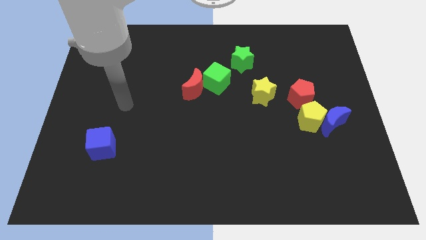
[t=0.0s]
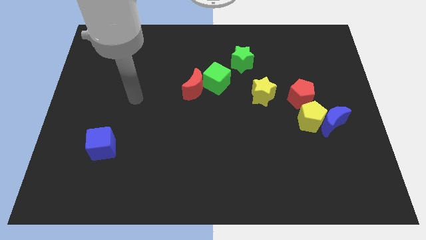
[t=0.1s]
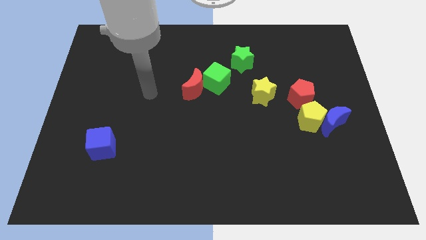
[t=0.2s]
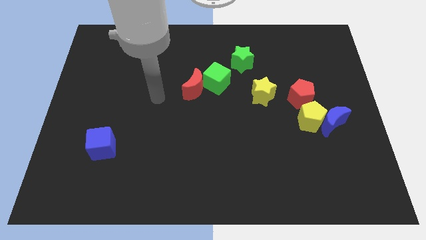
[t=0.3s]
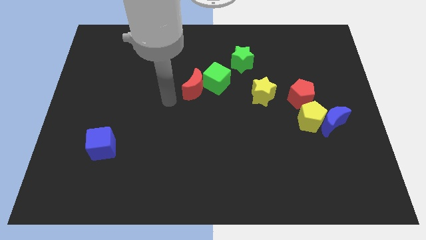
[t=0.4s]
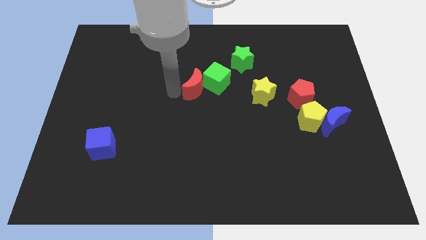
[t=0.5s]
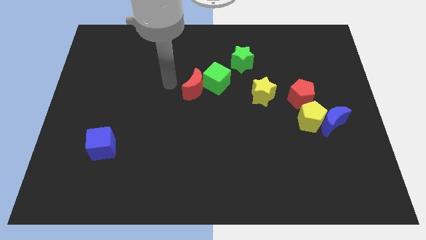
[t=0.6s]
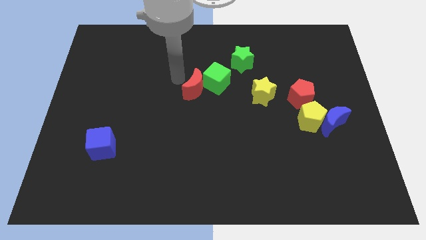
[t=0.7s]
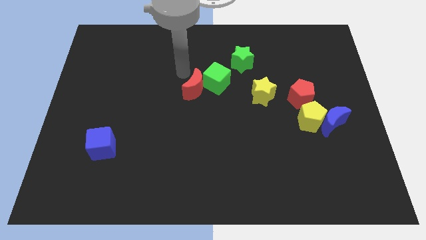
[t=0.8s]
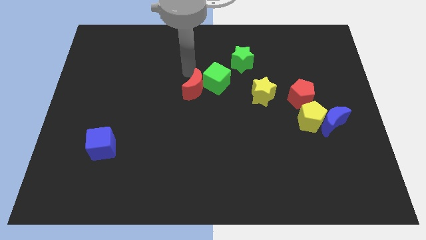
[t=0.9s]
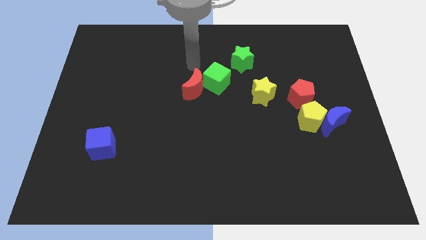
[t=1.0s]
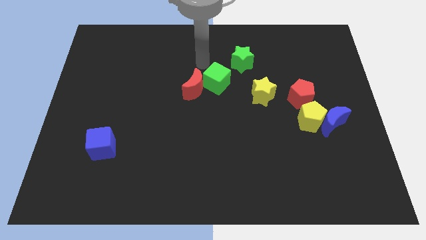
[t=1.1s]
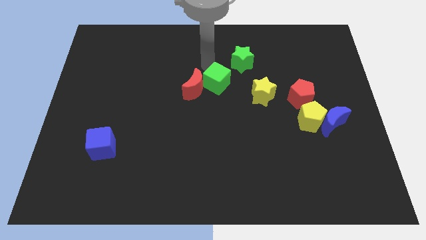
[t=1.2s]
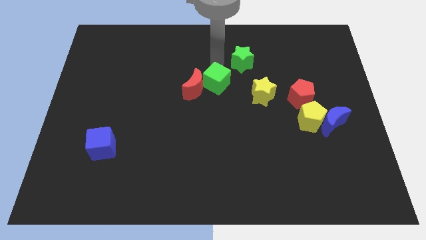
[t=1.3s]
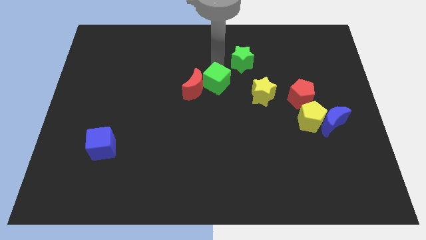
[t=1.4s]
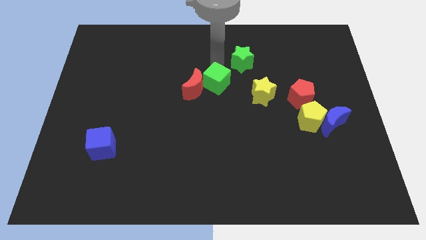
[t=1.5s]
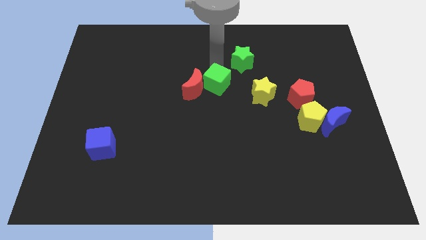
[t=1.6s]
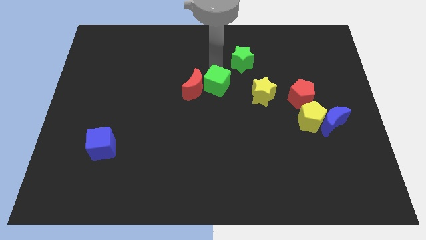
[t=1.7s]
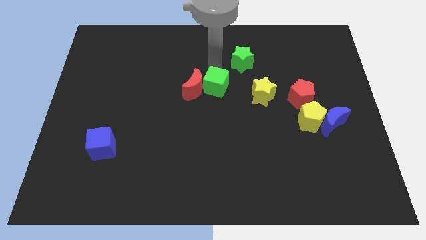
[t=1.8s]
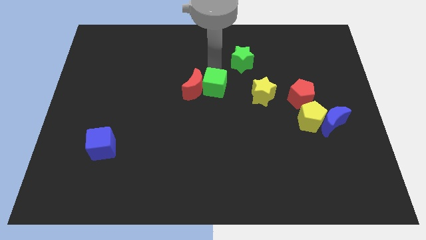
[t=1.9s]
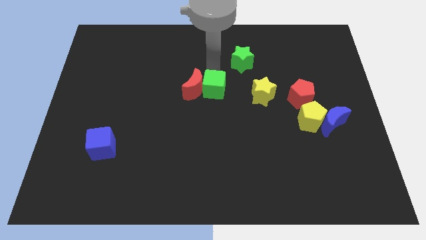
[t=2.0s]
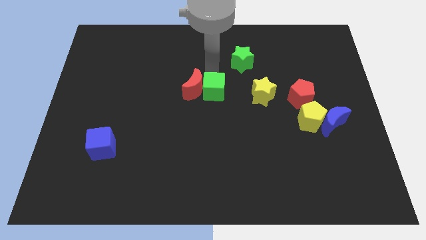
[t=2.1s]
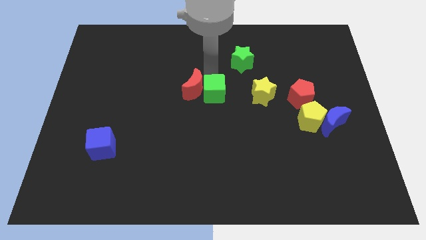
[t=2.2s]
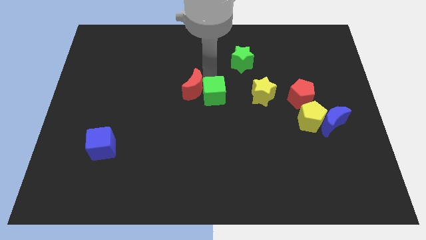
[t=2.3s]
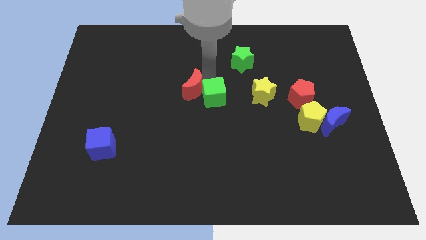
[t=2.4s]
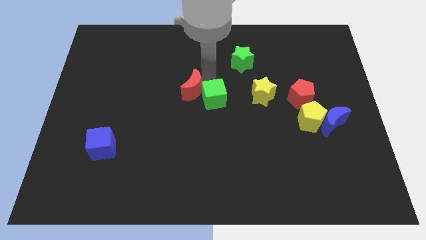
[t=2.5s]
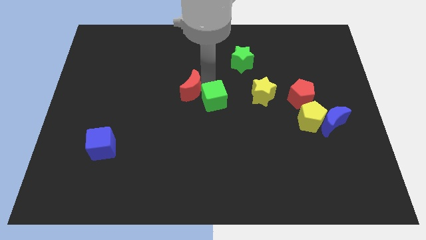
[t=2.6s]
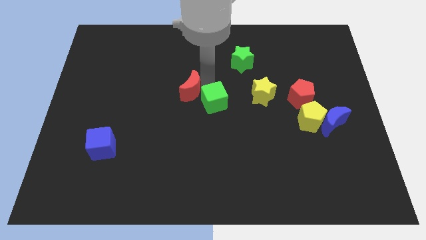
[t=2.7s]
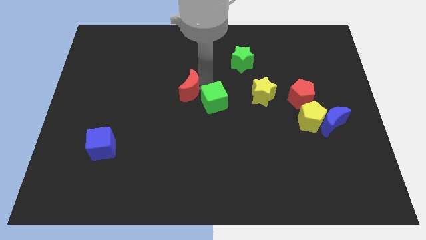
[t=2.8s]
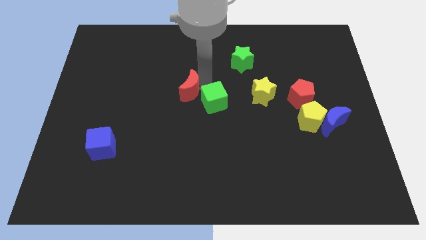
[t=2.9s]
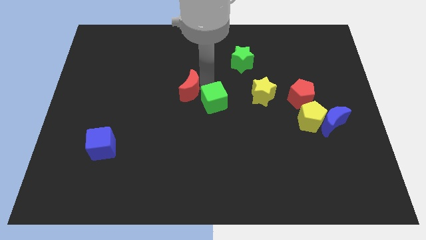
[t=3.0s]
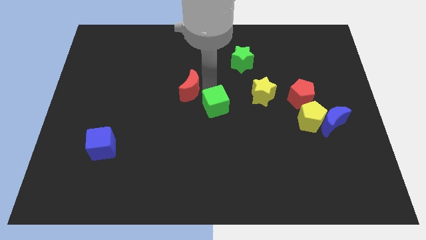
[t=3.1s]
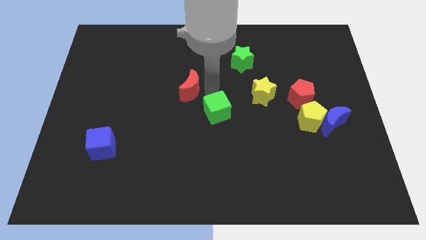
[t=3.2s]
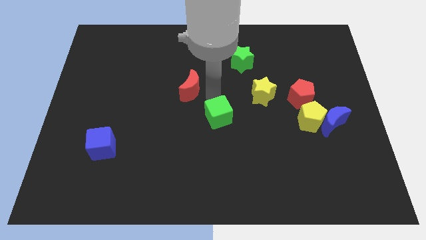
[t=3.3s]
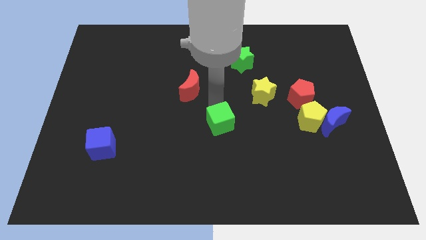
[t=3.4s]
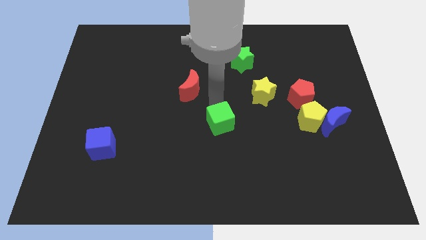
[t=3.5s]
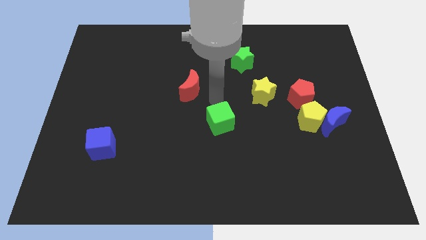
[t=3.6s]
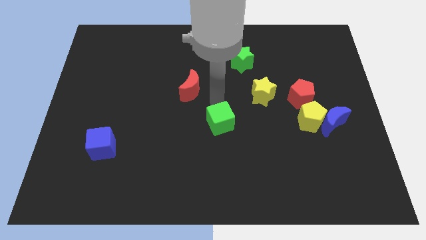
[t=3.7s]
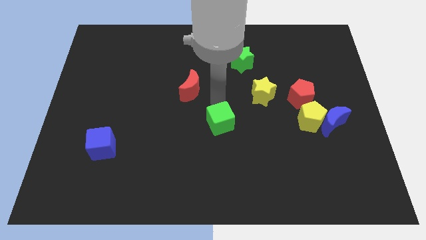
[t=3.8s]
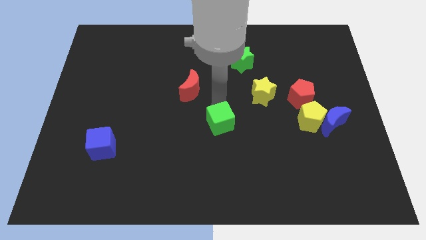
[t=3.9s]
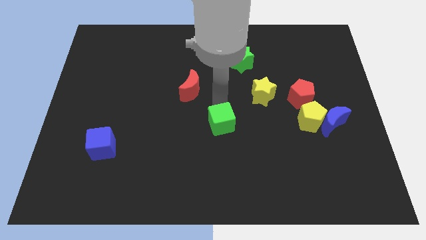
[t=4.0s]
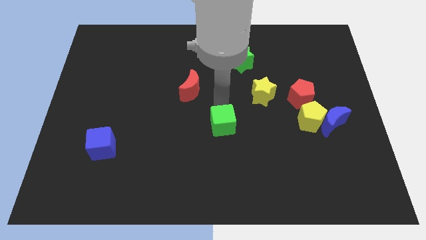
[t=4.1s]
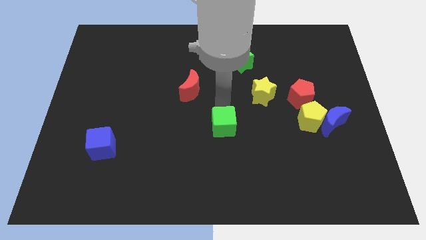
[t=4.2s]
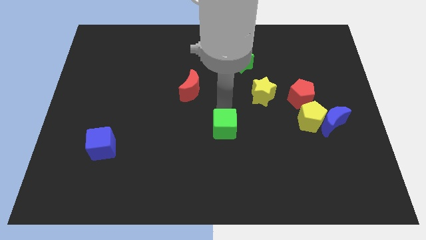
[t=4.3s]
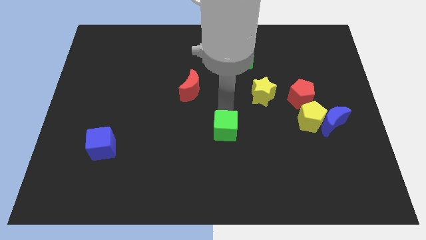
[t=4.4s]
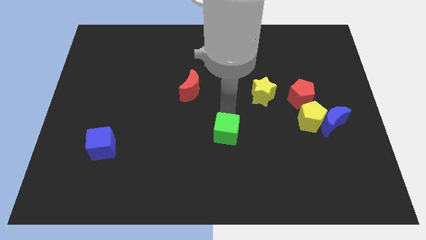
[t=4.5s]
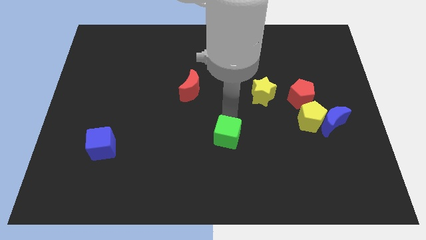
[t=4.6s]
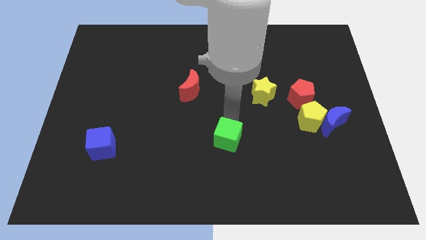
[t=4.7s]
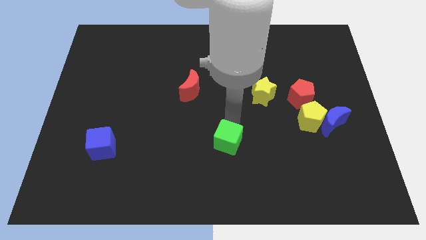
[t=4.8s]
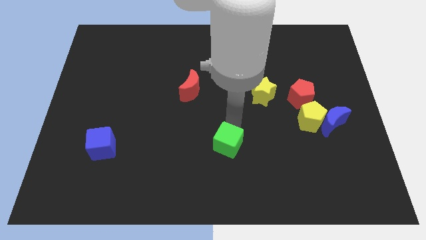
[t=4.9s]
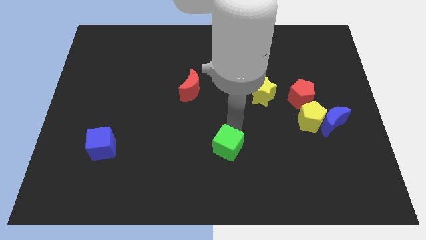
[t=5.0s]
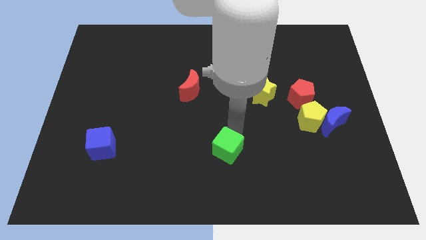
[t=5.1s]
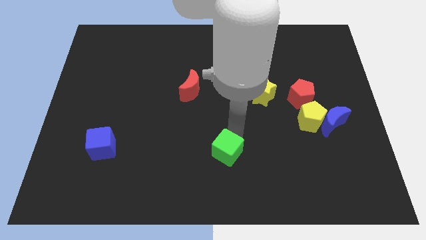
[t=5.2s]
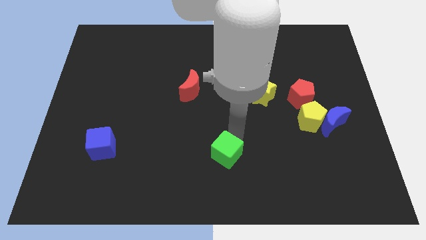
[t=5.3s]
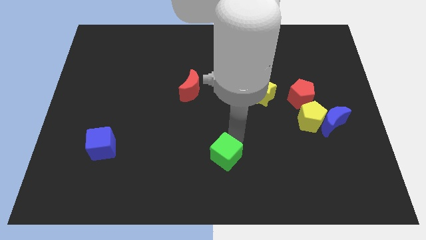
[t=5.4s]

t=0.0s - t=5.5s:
put the green cube to the bottom side

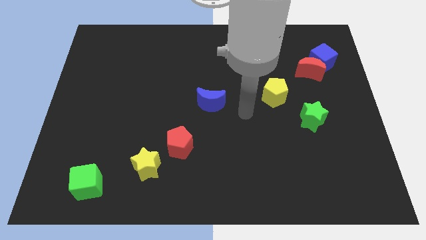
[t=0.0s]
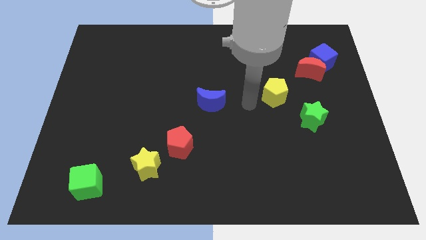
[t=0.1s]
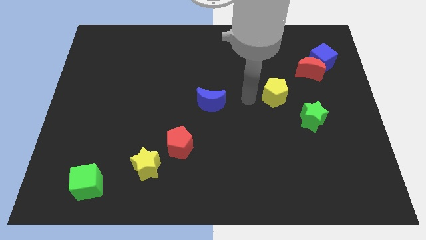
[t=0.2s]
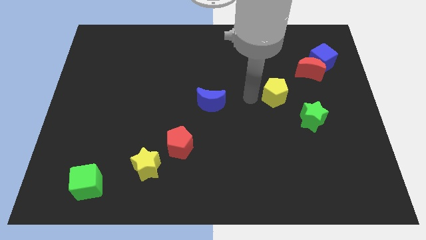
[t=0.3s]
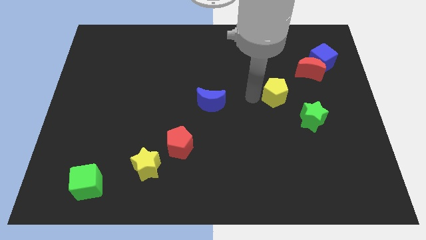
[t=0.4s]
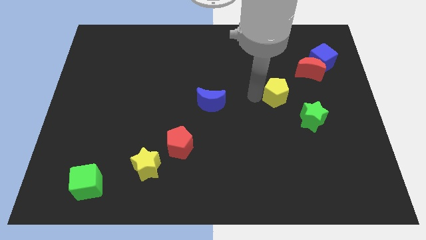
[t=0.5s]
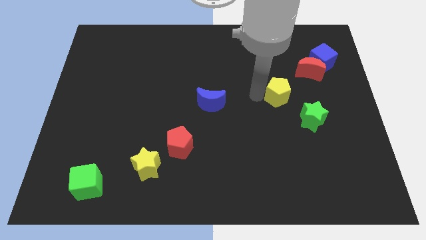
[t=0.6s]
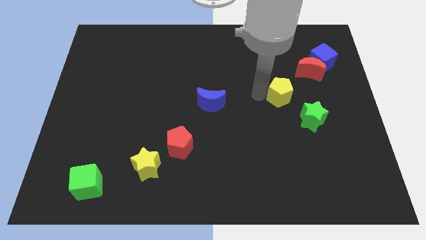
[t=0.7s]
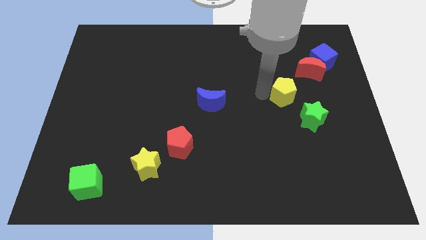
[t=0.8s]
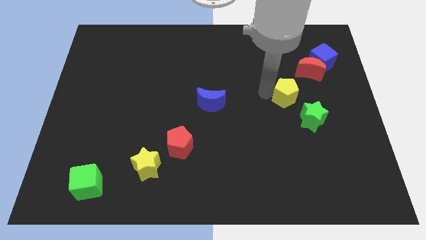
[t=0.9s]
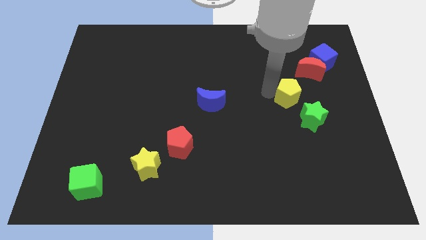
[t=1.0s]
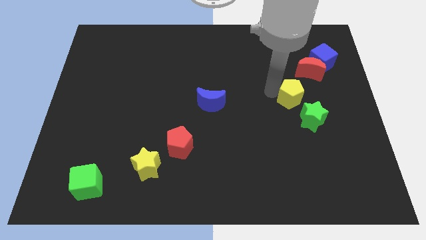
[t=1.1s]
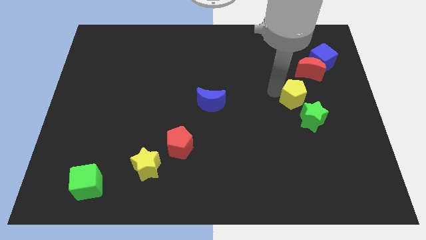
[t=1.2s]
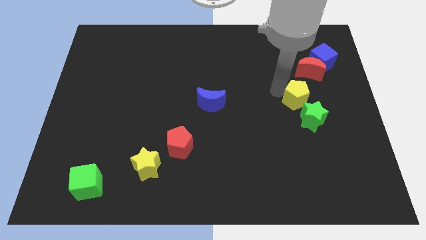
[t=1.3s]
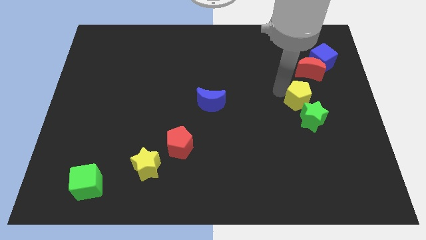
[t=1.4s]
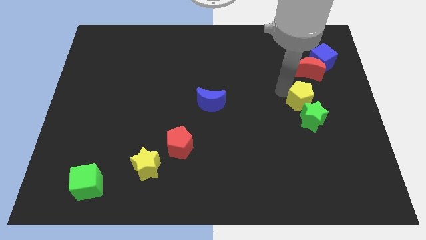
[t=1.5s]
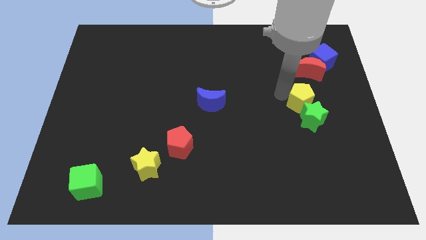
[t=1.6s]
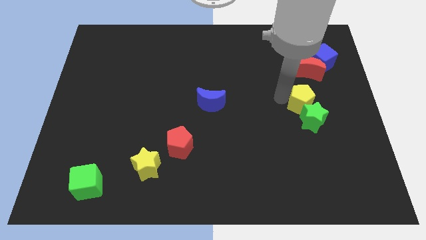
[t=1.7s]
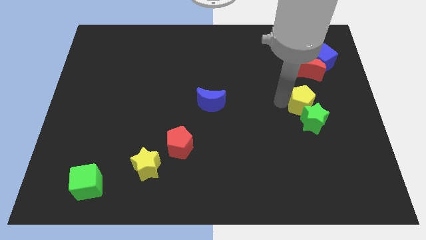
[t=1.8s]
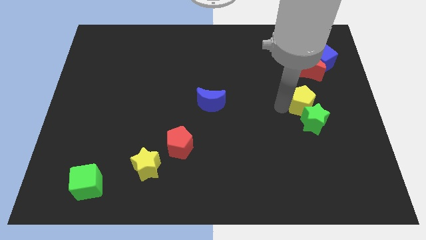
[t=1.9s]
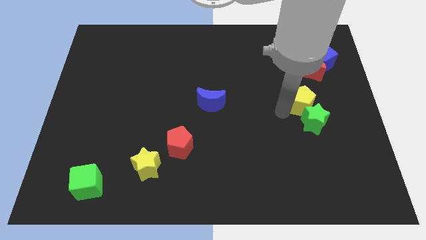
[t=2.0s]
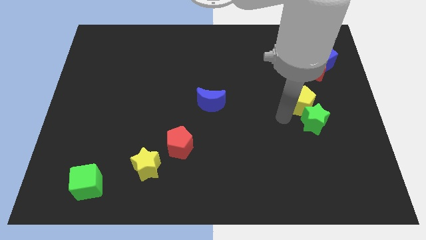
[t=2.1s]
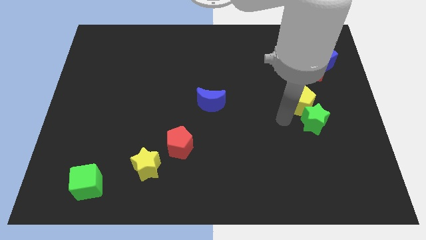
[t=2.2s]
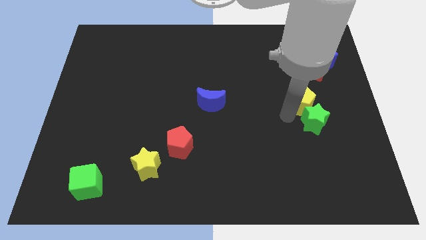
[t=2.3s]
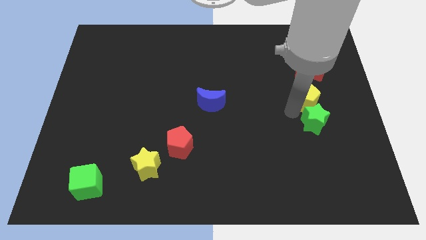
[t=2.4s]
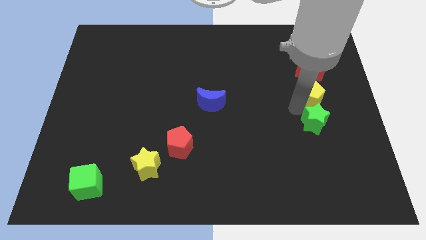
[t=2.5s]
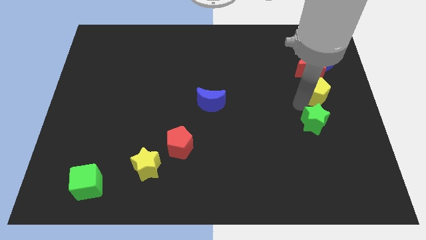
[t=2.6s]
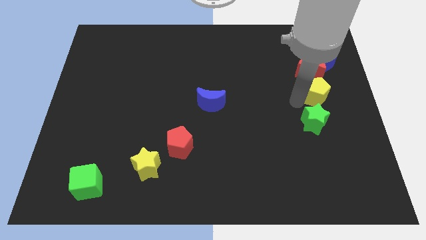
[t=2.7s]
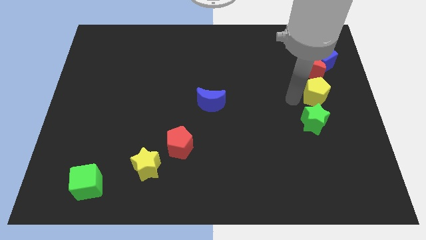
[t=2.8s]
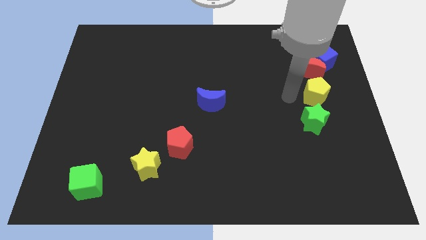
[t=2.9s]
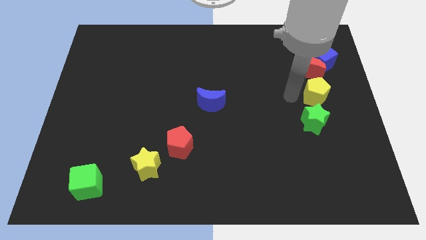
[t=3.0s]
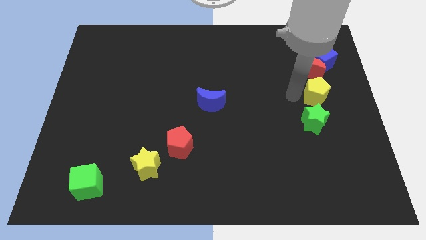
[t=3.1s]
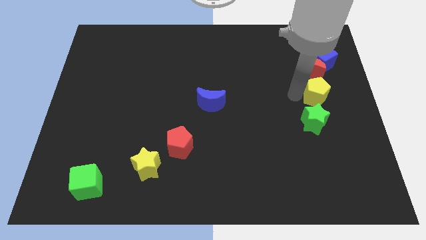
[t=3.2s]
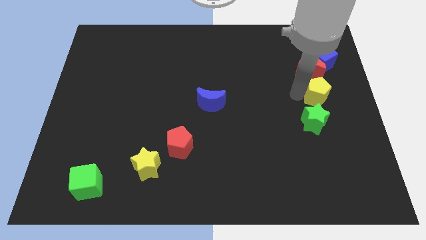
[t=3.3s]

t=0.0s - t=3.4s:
move the yellow pentagon to the right side
